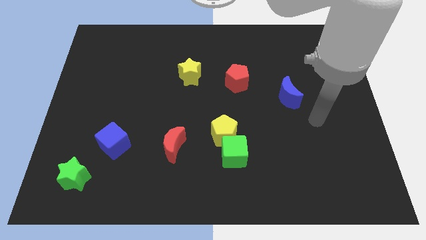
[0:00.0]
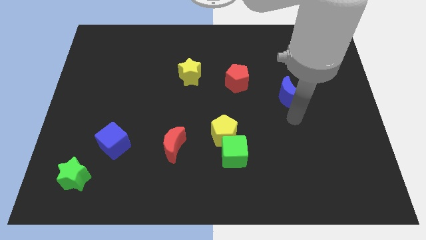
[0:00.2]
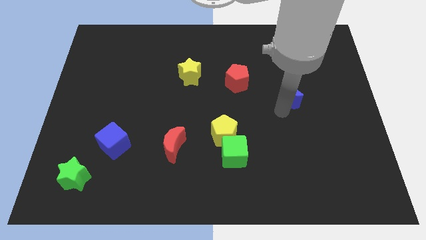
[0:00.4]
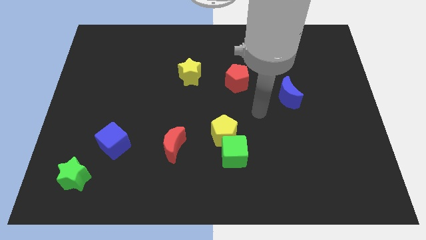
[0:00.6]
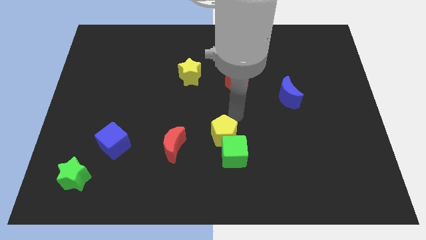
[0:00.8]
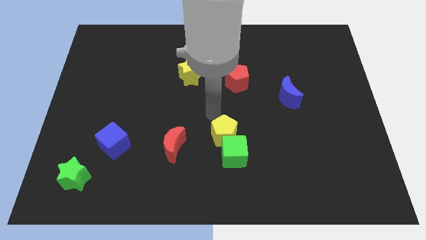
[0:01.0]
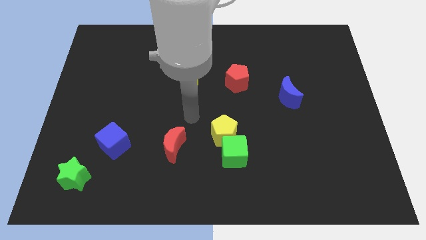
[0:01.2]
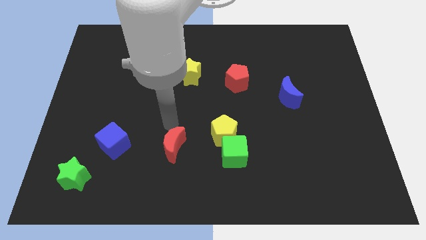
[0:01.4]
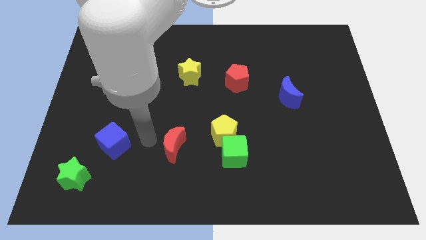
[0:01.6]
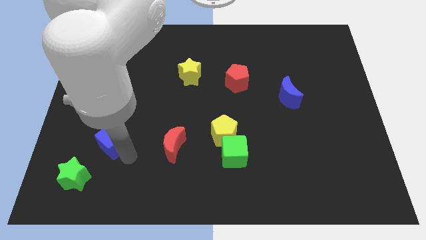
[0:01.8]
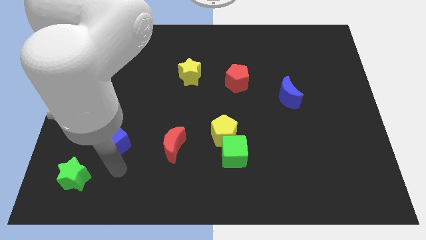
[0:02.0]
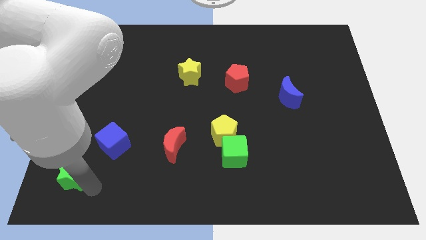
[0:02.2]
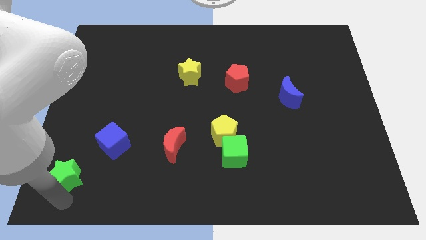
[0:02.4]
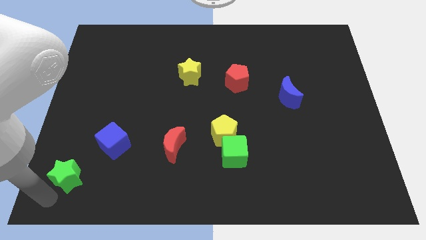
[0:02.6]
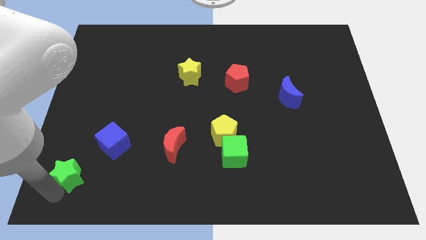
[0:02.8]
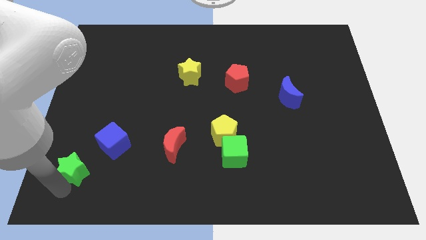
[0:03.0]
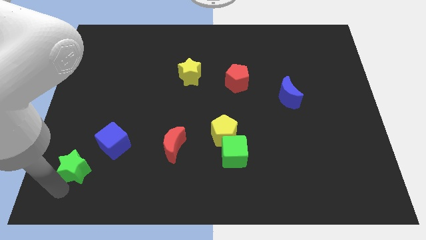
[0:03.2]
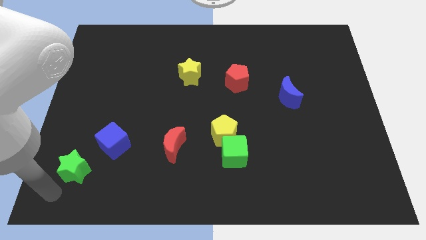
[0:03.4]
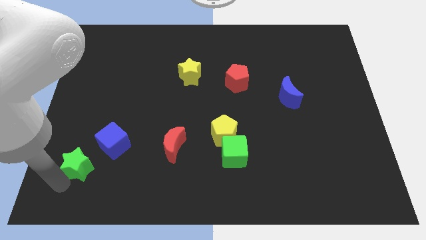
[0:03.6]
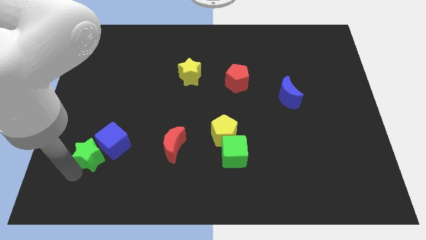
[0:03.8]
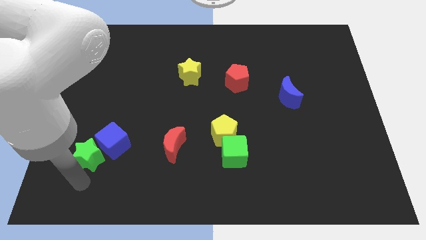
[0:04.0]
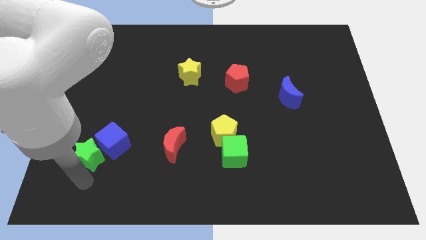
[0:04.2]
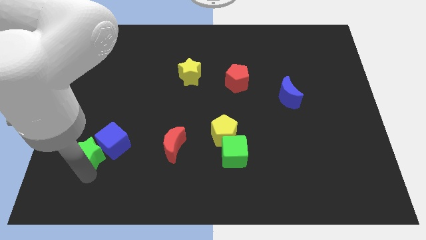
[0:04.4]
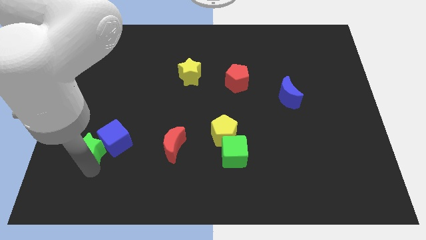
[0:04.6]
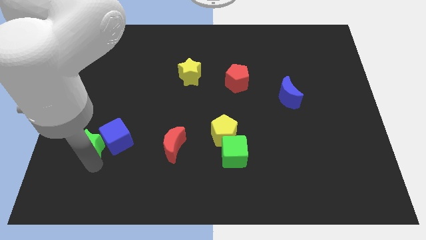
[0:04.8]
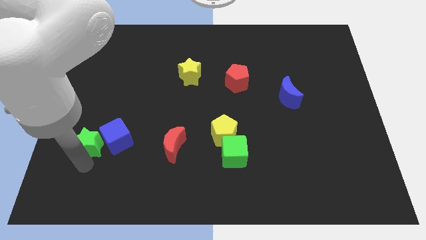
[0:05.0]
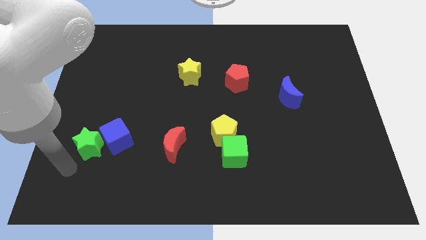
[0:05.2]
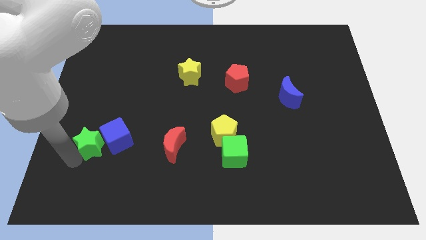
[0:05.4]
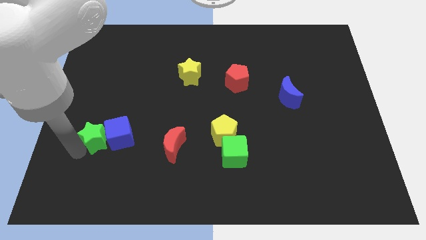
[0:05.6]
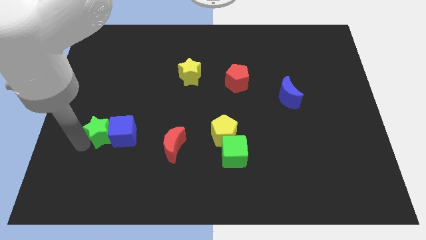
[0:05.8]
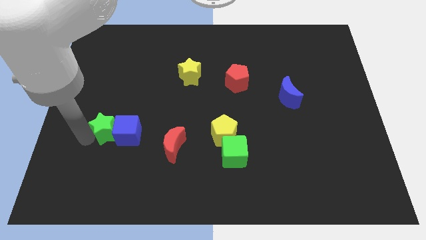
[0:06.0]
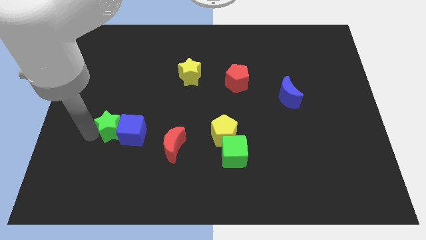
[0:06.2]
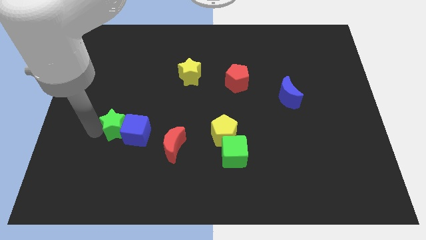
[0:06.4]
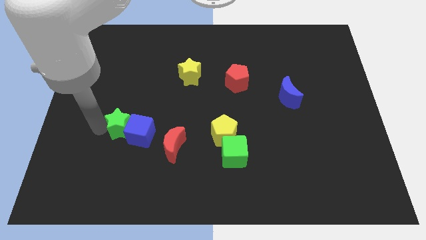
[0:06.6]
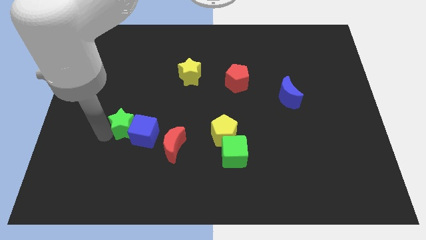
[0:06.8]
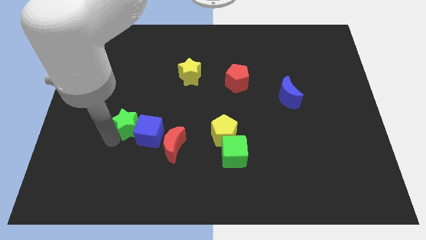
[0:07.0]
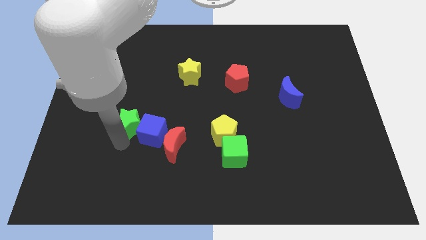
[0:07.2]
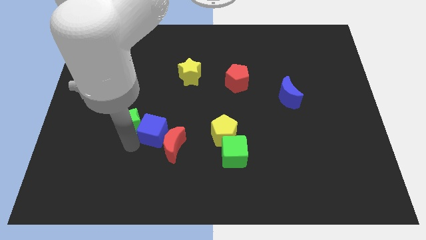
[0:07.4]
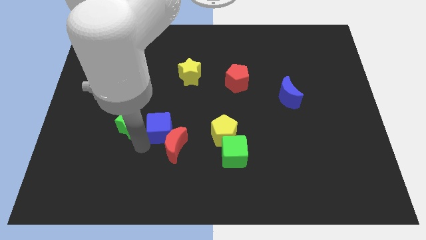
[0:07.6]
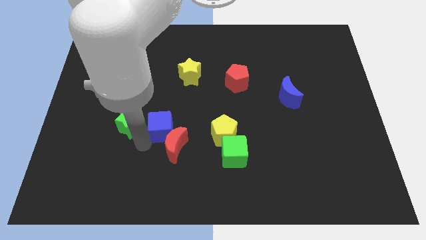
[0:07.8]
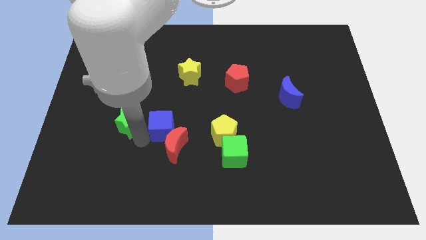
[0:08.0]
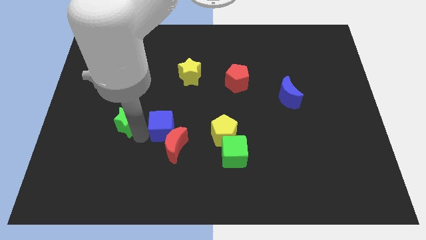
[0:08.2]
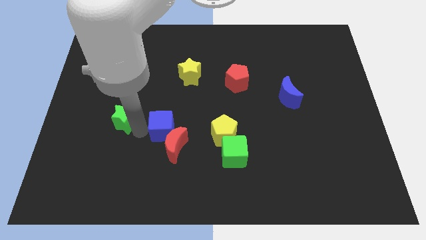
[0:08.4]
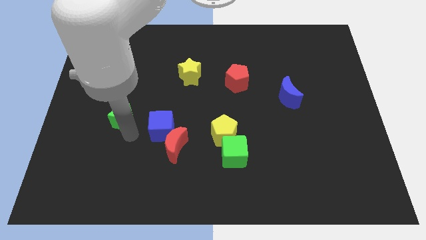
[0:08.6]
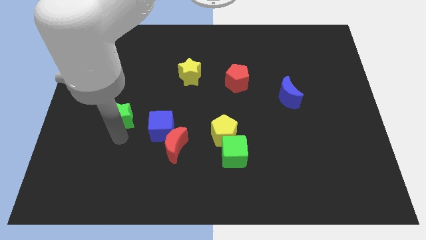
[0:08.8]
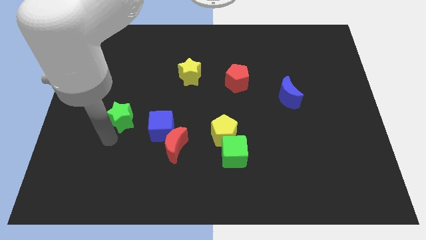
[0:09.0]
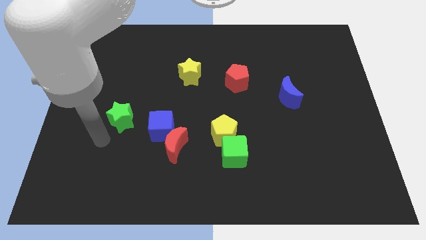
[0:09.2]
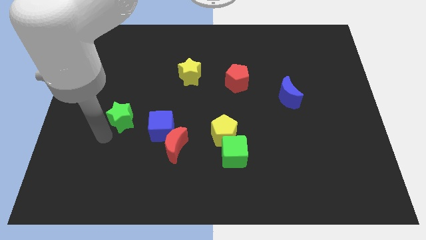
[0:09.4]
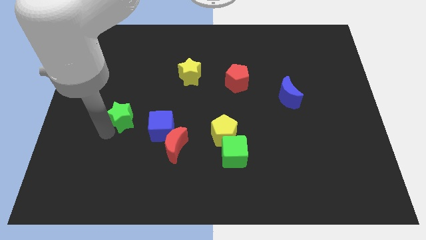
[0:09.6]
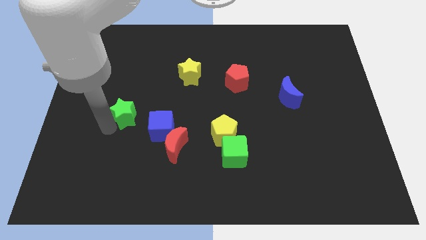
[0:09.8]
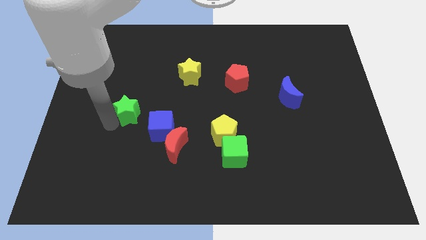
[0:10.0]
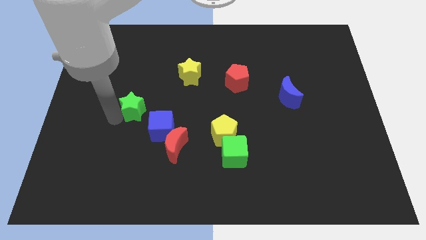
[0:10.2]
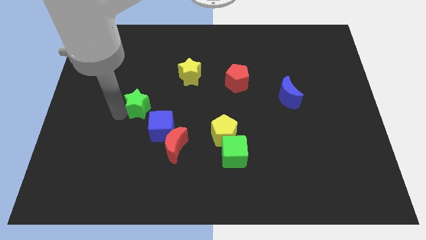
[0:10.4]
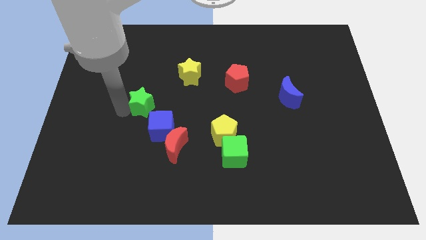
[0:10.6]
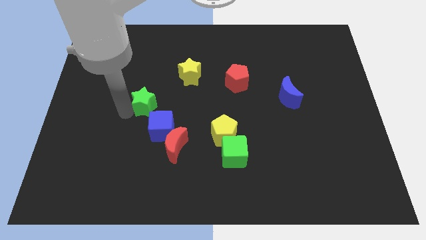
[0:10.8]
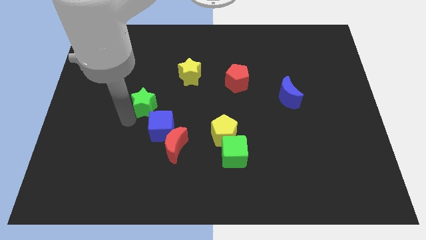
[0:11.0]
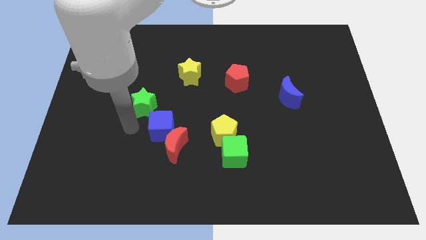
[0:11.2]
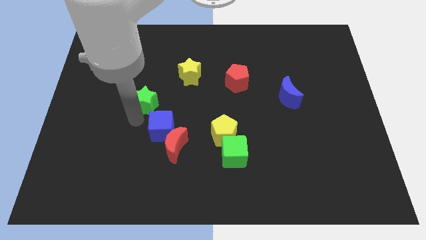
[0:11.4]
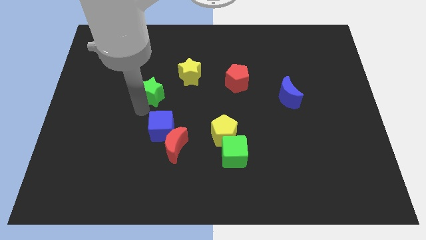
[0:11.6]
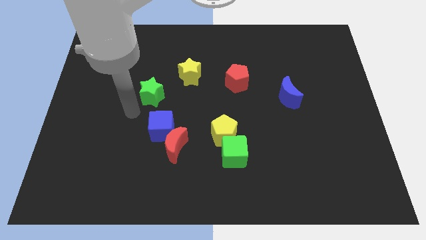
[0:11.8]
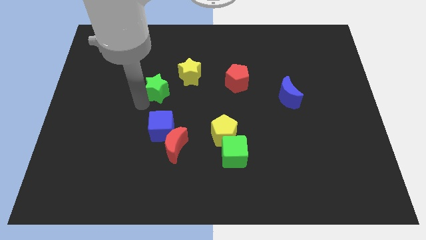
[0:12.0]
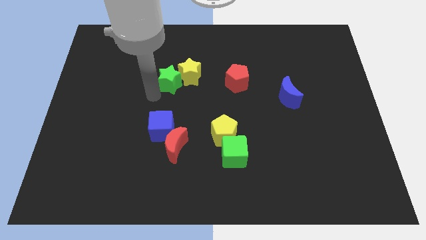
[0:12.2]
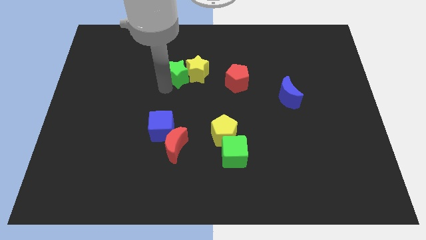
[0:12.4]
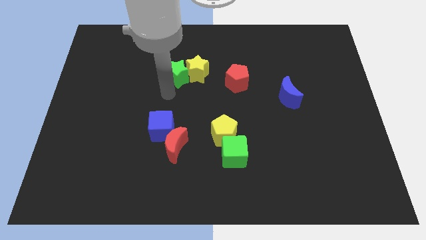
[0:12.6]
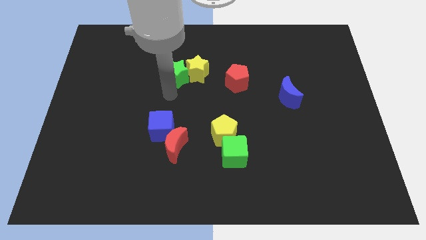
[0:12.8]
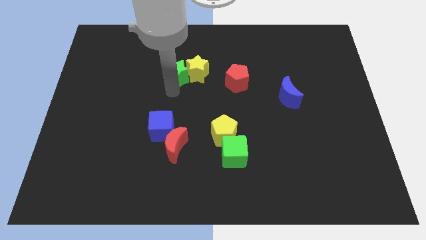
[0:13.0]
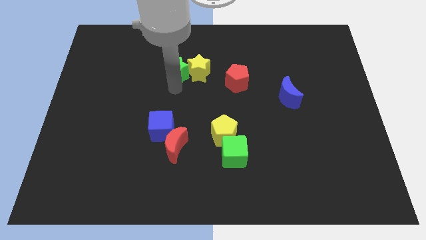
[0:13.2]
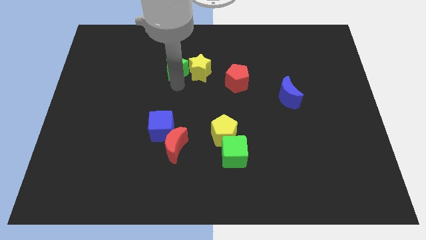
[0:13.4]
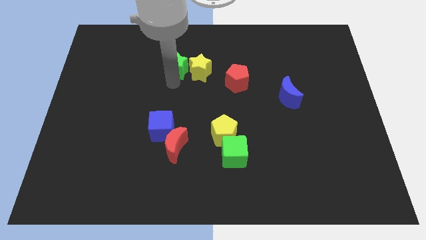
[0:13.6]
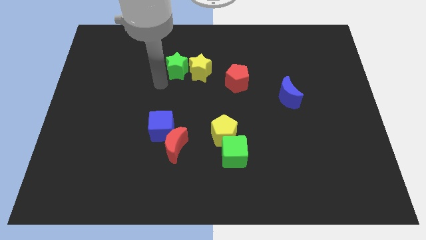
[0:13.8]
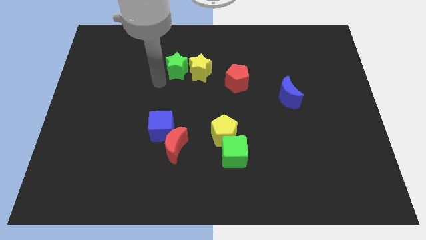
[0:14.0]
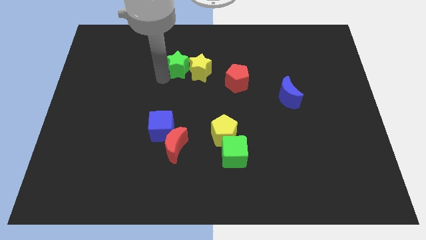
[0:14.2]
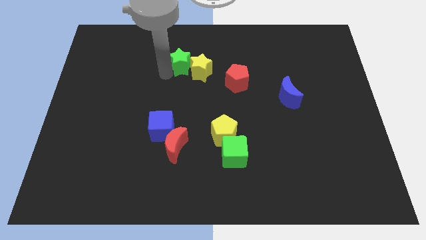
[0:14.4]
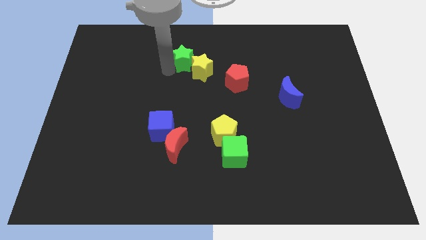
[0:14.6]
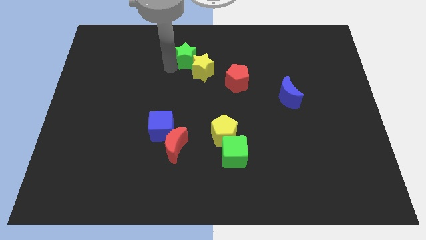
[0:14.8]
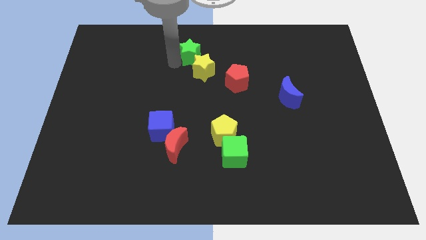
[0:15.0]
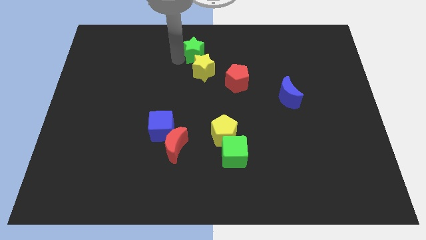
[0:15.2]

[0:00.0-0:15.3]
put the green star to the top
